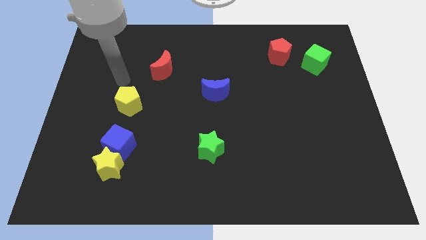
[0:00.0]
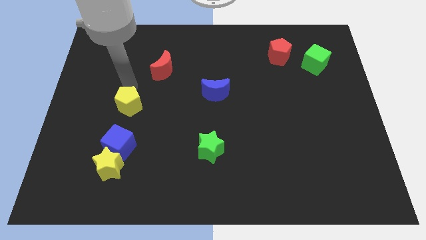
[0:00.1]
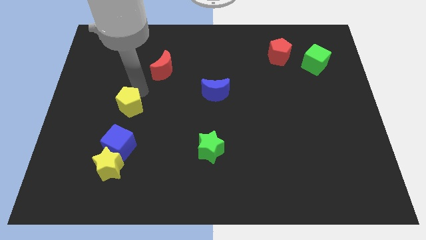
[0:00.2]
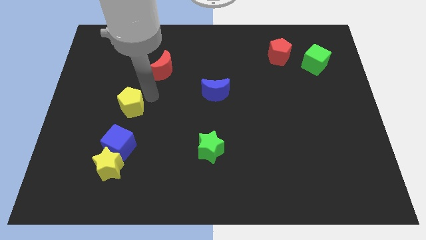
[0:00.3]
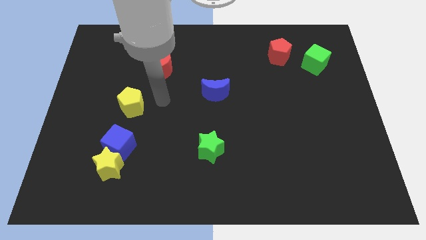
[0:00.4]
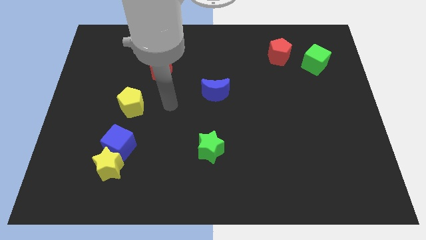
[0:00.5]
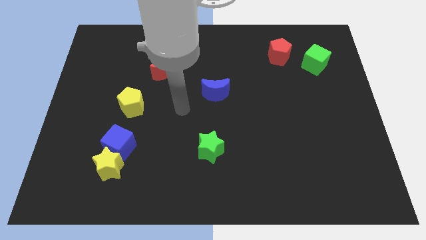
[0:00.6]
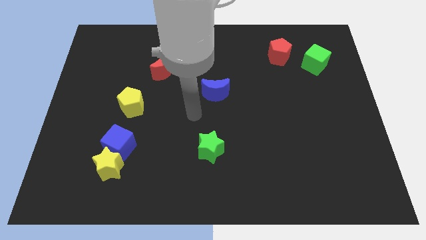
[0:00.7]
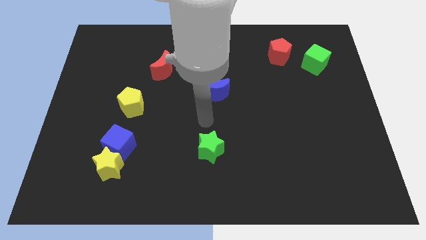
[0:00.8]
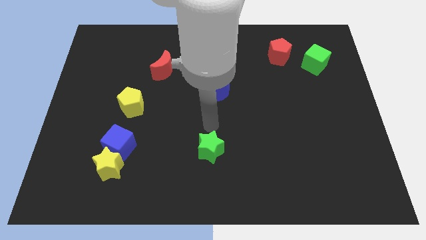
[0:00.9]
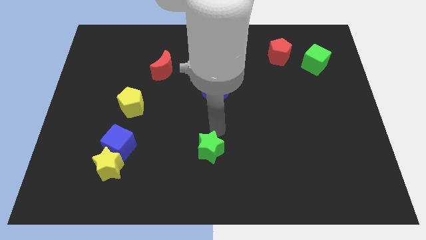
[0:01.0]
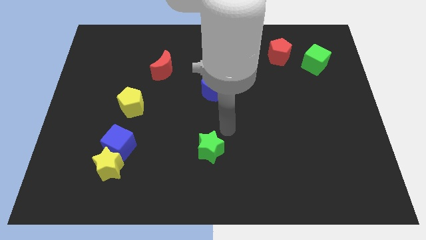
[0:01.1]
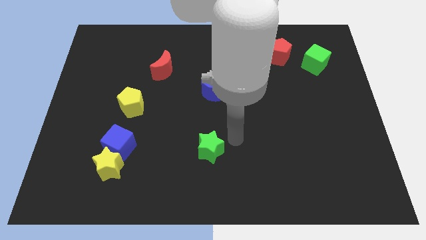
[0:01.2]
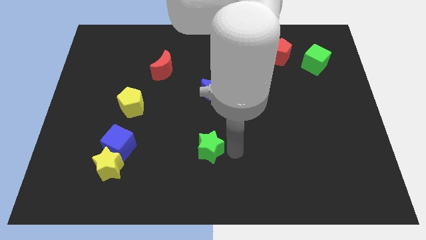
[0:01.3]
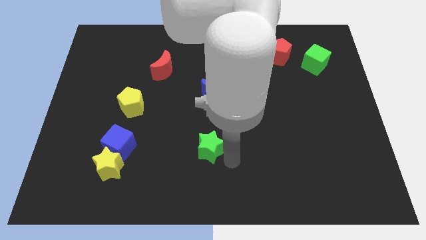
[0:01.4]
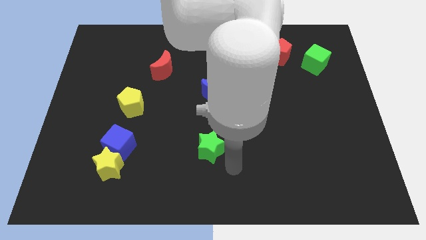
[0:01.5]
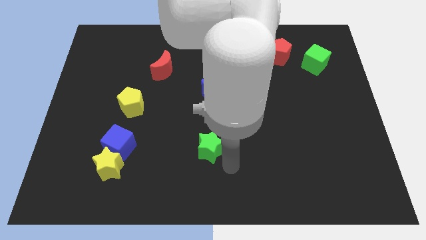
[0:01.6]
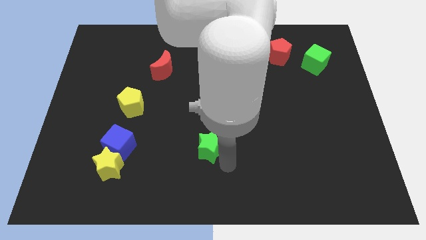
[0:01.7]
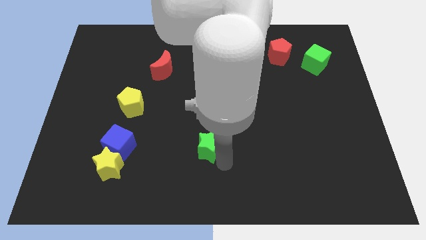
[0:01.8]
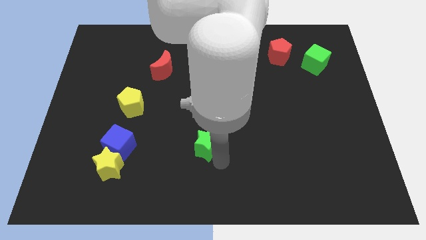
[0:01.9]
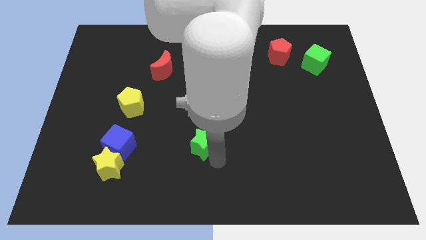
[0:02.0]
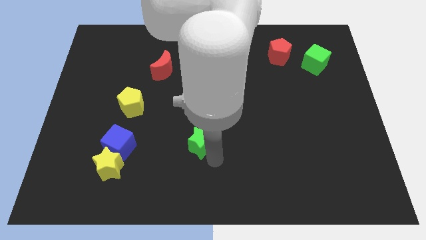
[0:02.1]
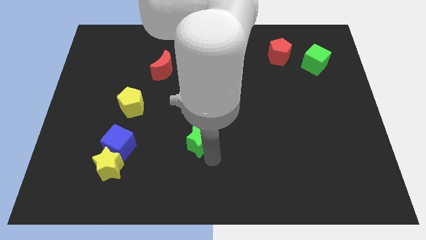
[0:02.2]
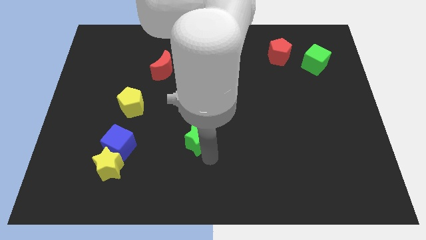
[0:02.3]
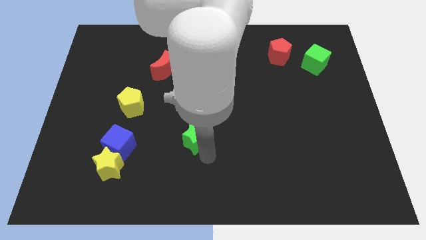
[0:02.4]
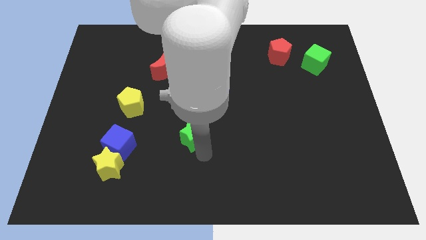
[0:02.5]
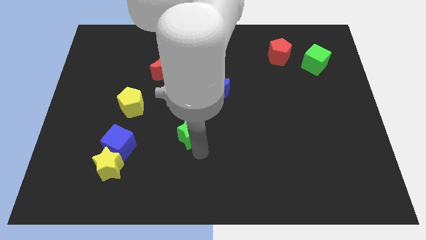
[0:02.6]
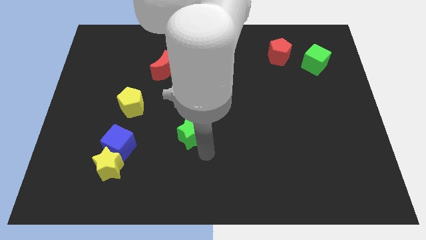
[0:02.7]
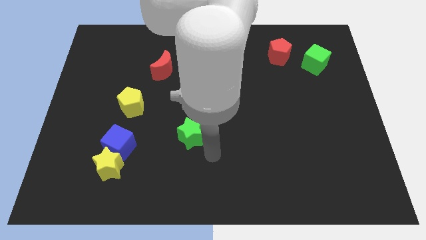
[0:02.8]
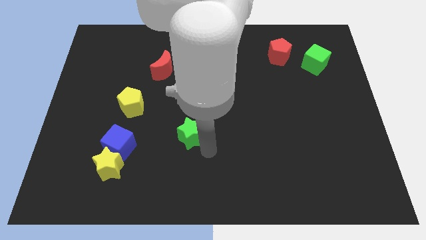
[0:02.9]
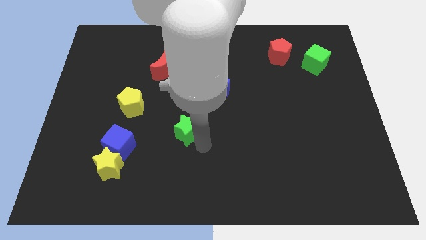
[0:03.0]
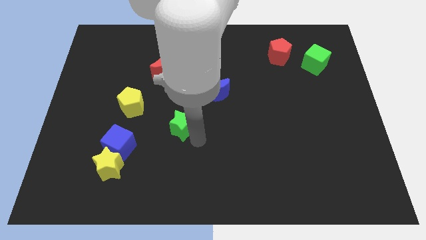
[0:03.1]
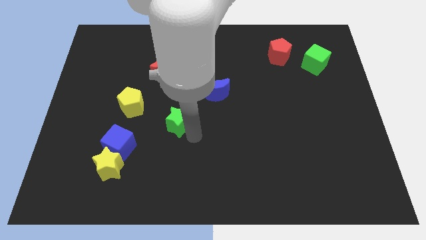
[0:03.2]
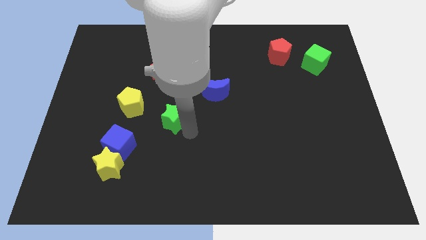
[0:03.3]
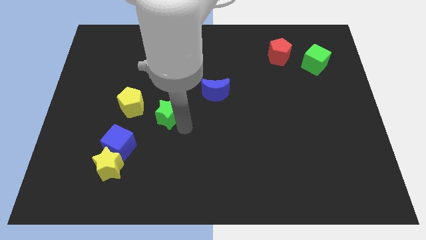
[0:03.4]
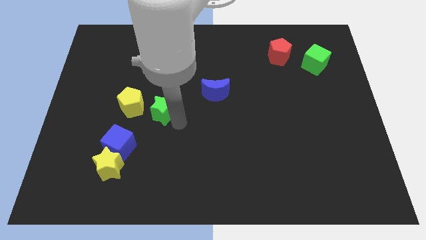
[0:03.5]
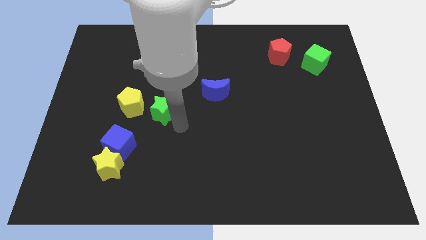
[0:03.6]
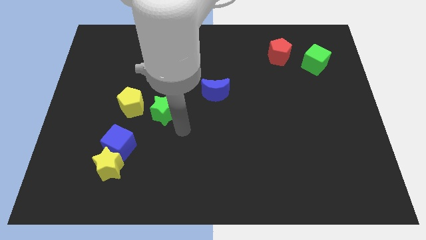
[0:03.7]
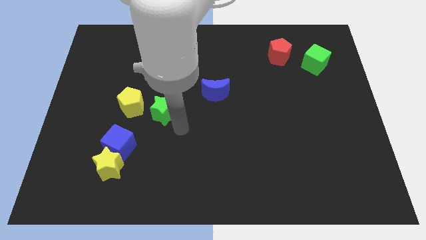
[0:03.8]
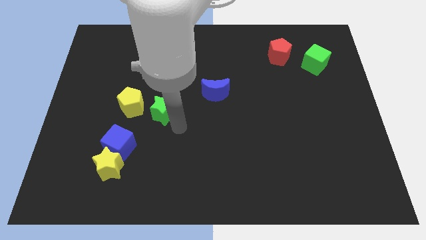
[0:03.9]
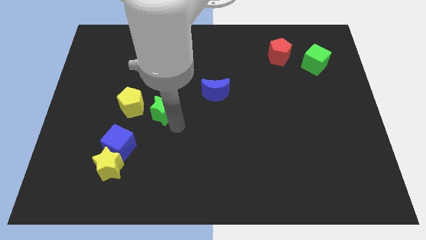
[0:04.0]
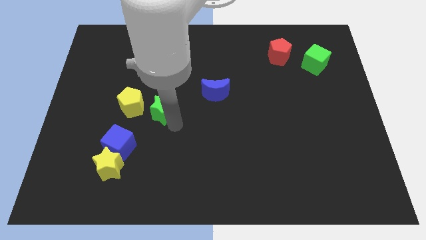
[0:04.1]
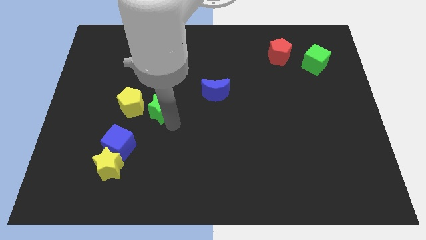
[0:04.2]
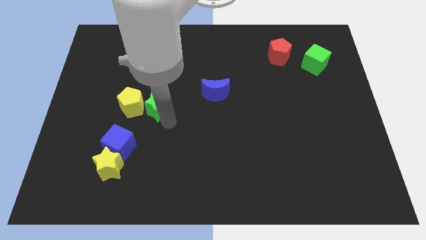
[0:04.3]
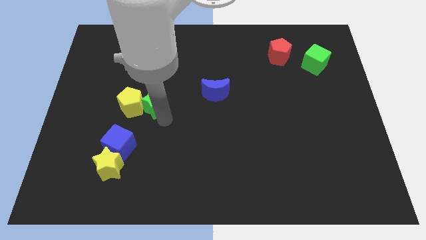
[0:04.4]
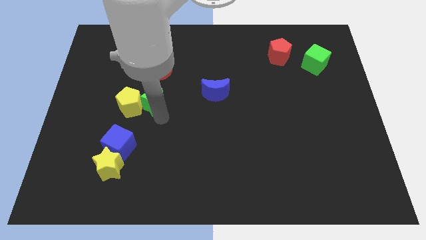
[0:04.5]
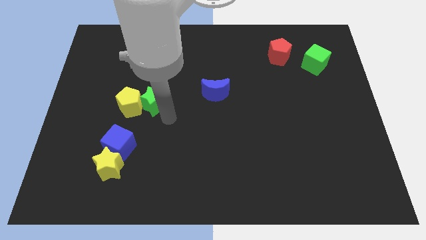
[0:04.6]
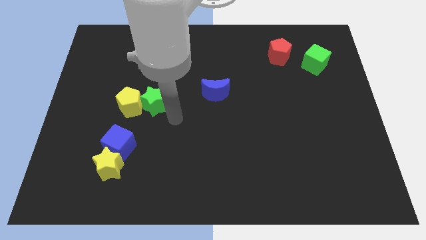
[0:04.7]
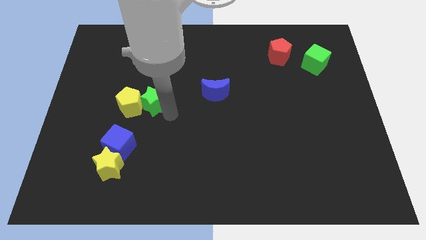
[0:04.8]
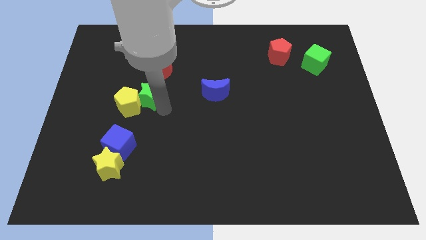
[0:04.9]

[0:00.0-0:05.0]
push the green star diagonally upwards and left

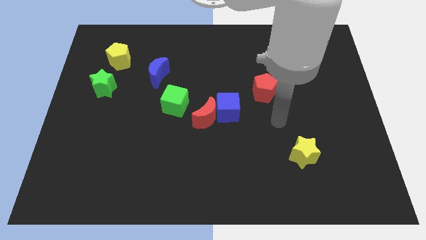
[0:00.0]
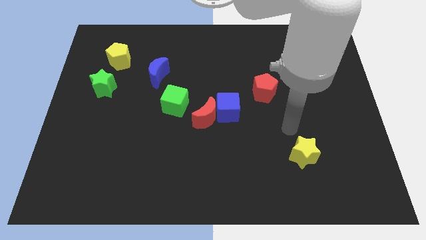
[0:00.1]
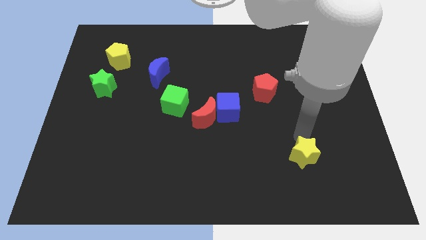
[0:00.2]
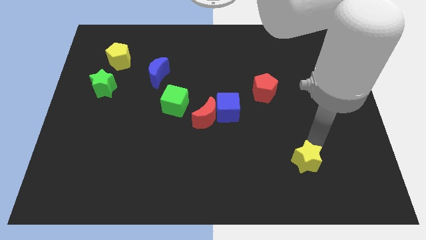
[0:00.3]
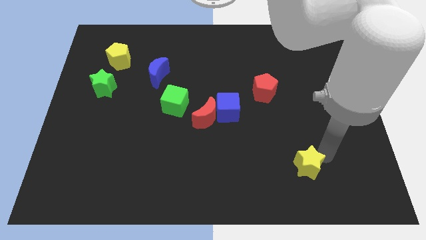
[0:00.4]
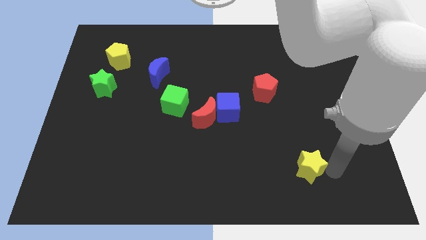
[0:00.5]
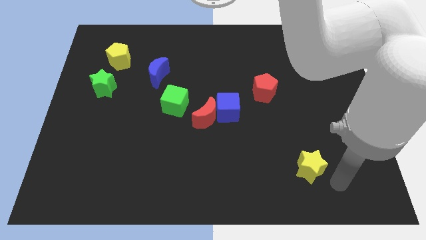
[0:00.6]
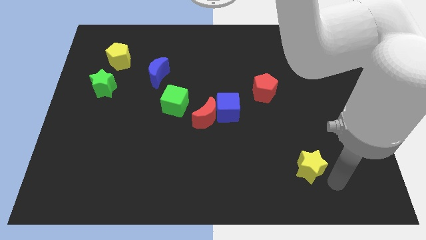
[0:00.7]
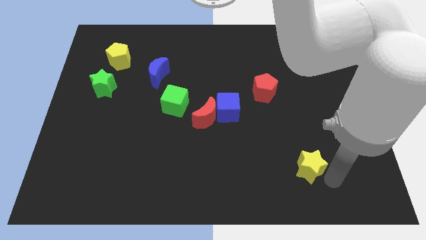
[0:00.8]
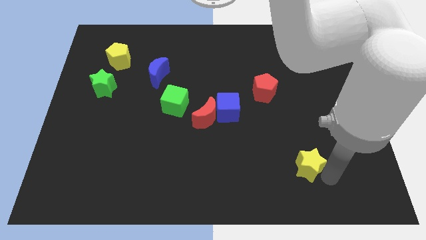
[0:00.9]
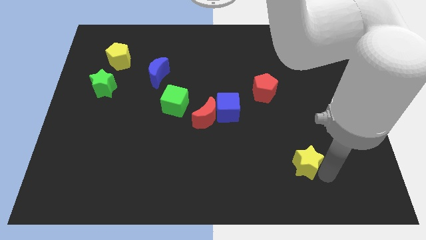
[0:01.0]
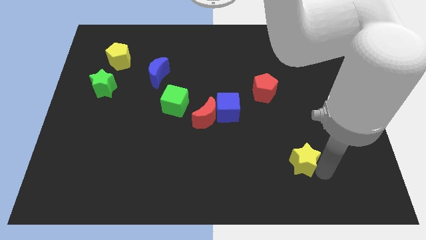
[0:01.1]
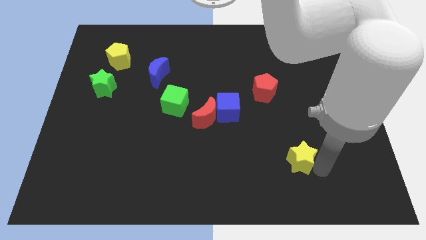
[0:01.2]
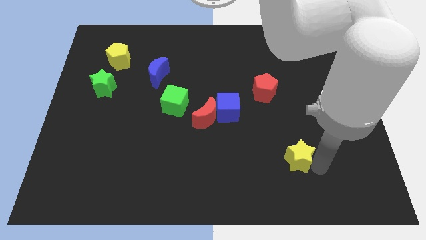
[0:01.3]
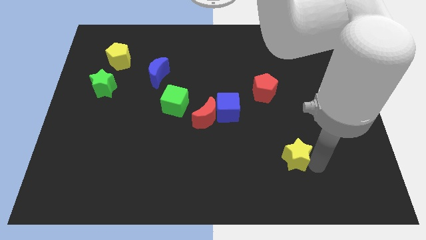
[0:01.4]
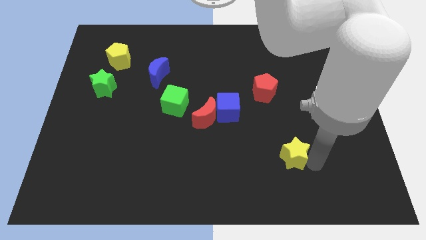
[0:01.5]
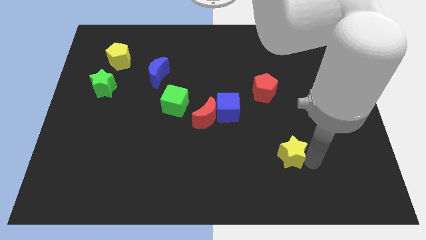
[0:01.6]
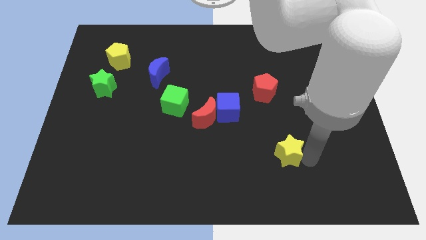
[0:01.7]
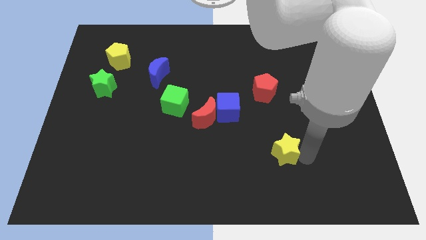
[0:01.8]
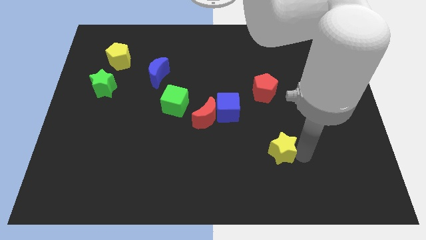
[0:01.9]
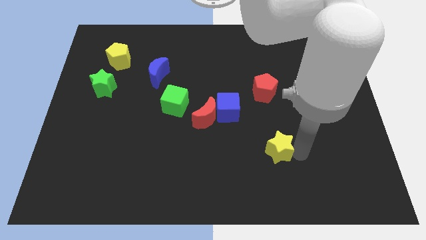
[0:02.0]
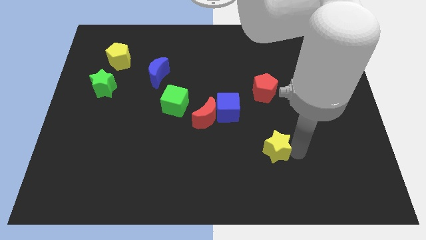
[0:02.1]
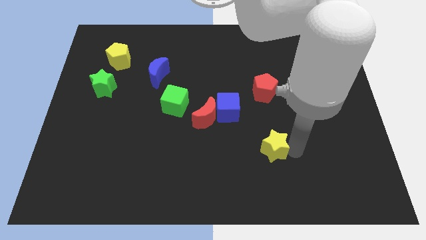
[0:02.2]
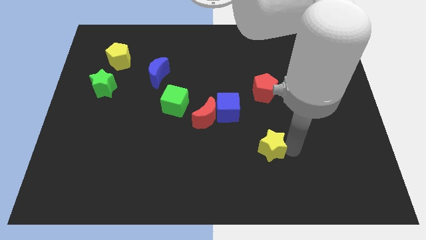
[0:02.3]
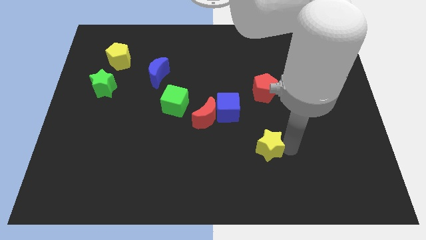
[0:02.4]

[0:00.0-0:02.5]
slightly push the yellow star to the left

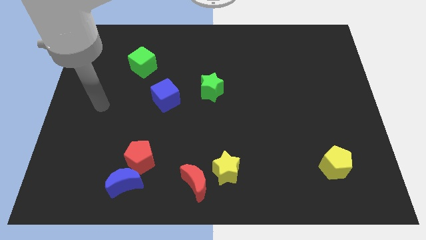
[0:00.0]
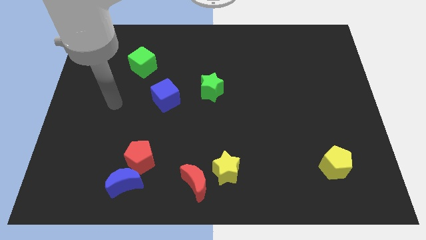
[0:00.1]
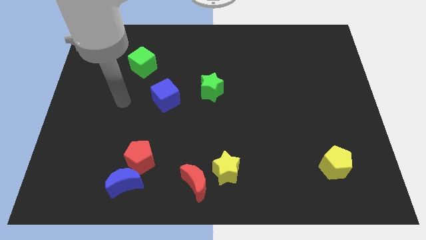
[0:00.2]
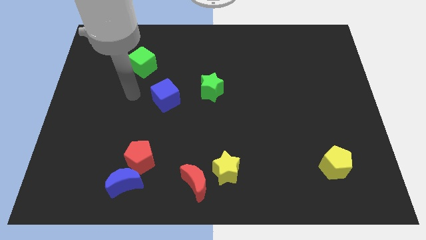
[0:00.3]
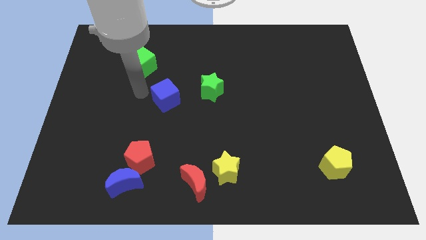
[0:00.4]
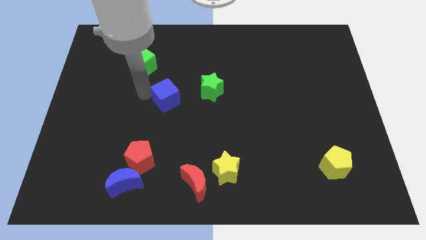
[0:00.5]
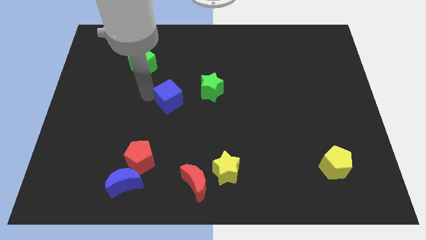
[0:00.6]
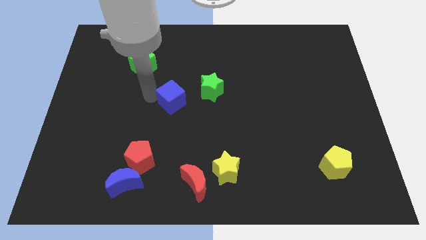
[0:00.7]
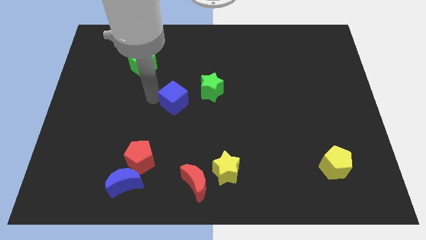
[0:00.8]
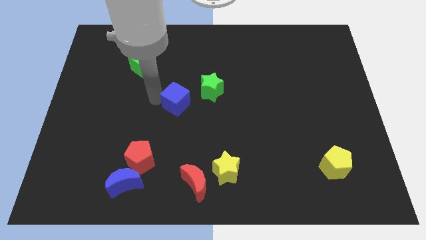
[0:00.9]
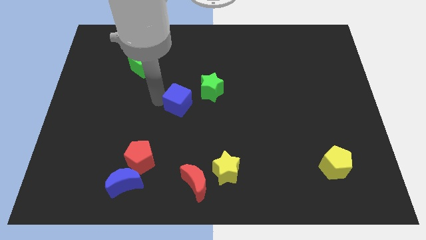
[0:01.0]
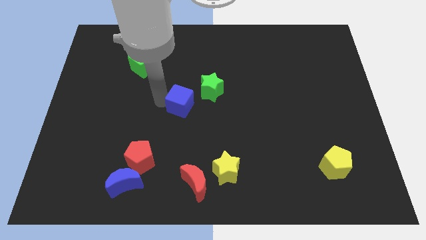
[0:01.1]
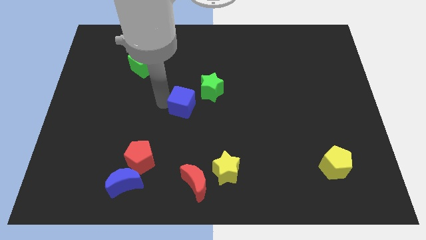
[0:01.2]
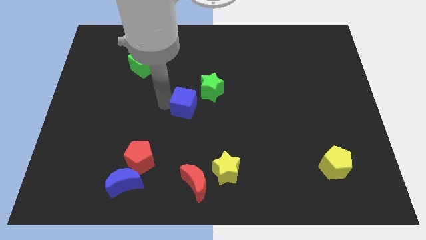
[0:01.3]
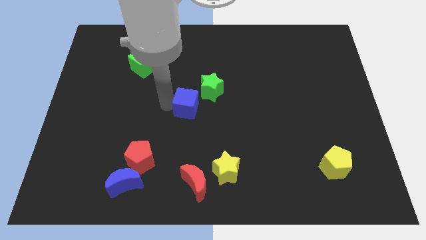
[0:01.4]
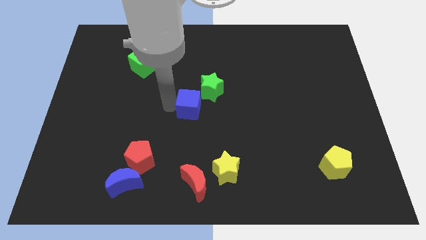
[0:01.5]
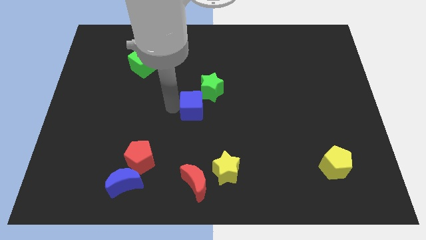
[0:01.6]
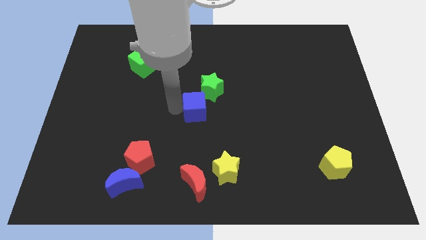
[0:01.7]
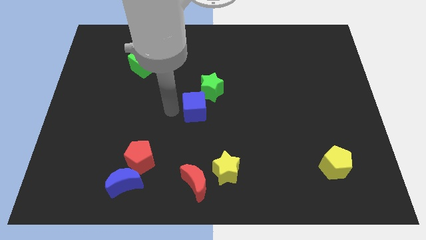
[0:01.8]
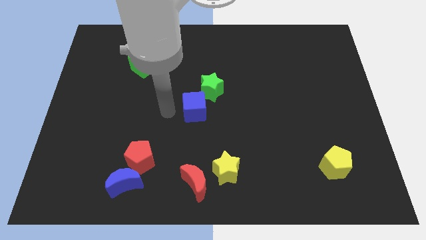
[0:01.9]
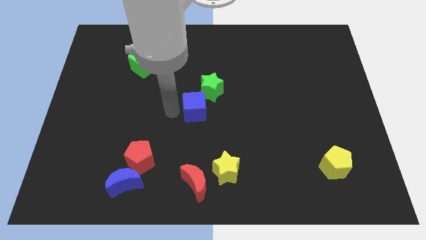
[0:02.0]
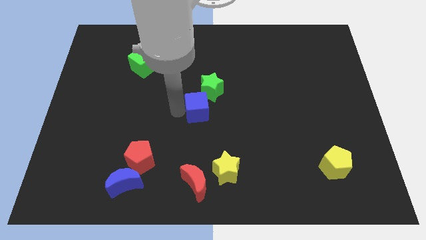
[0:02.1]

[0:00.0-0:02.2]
slide the blue cube to the right a bit
